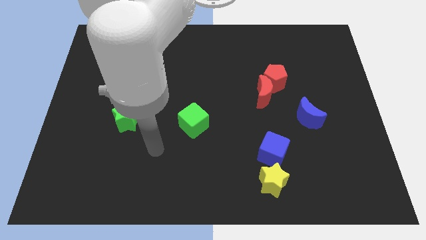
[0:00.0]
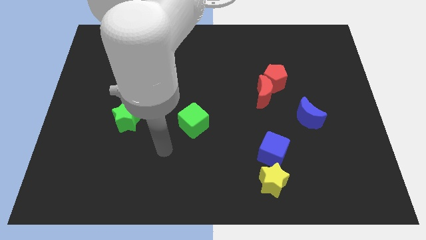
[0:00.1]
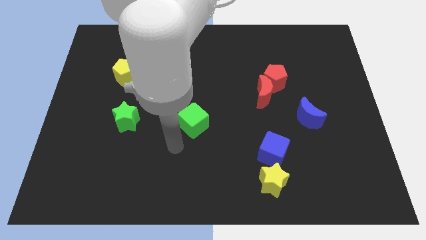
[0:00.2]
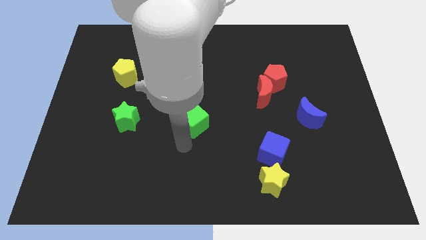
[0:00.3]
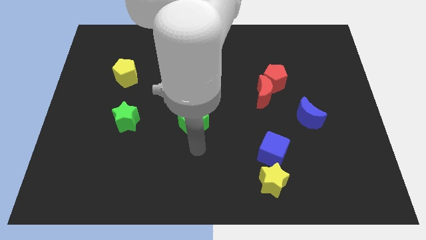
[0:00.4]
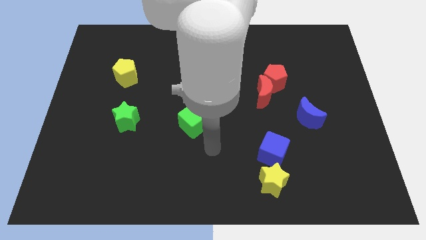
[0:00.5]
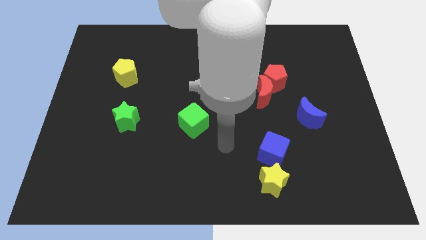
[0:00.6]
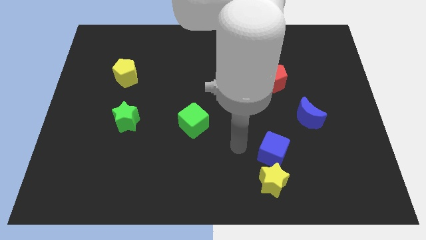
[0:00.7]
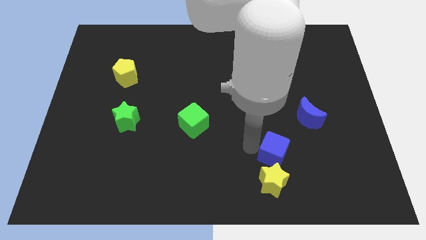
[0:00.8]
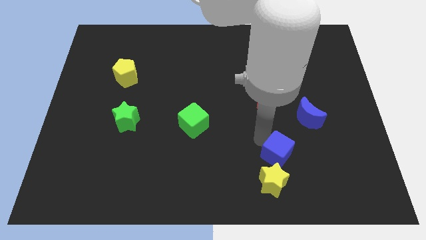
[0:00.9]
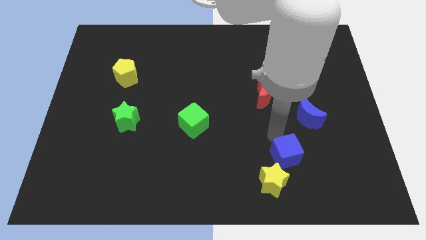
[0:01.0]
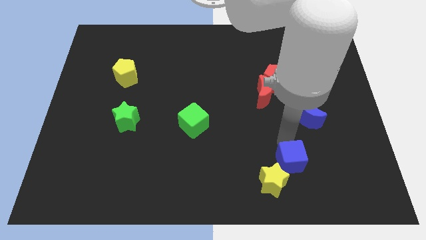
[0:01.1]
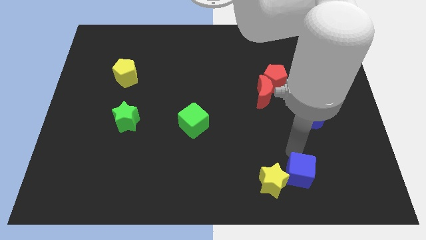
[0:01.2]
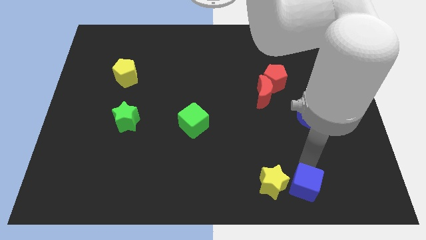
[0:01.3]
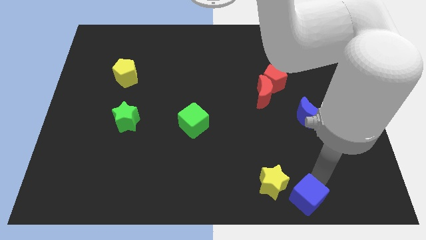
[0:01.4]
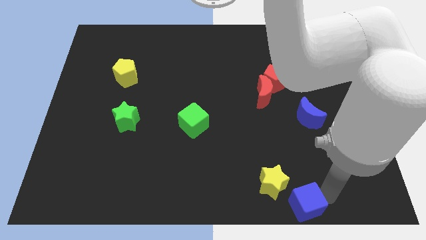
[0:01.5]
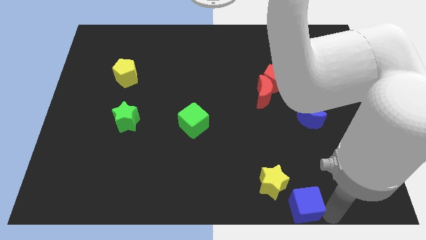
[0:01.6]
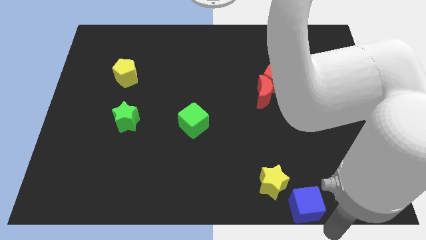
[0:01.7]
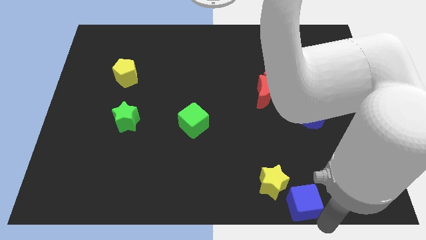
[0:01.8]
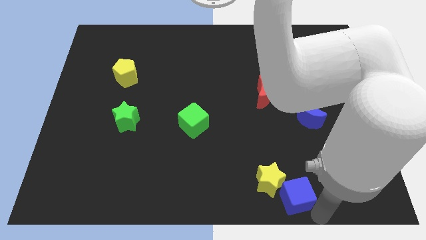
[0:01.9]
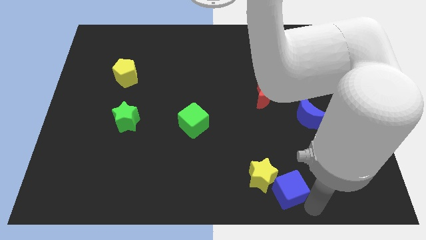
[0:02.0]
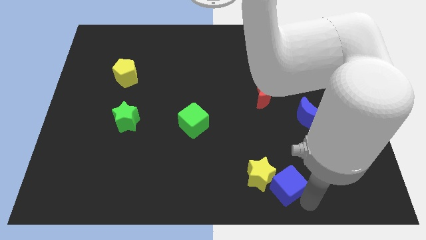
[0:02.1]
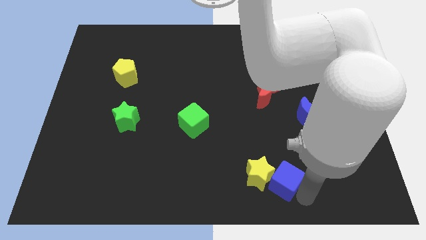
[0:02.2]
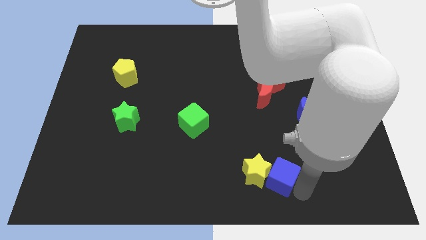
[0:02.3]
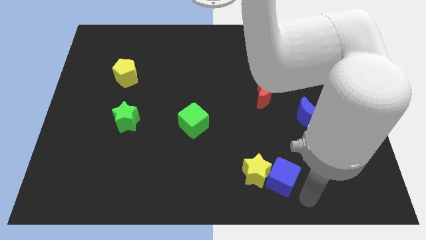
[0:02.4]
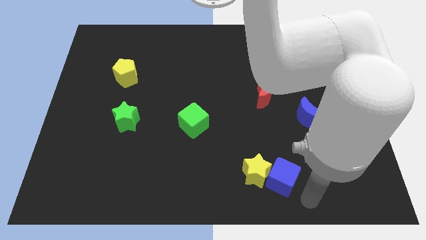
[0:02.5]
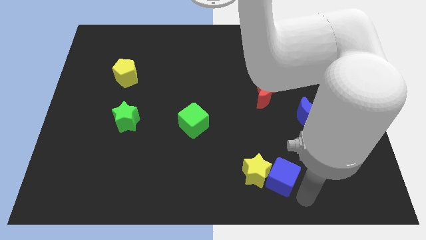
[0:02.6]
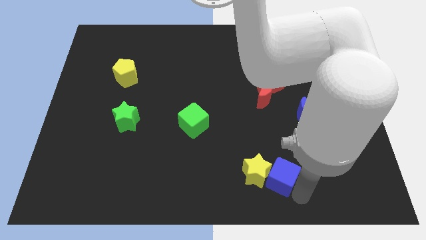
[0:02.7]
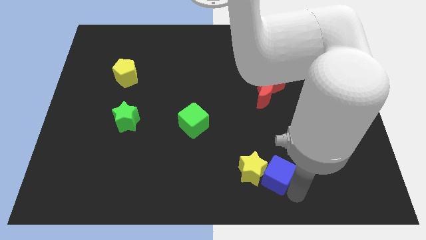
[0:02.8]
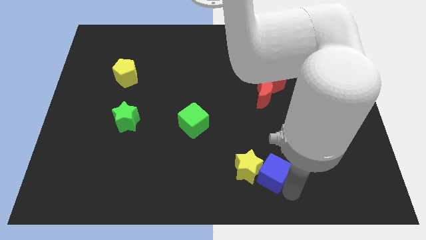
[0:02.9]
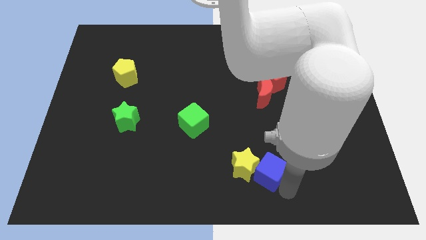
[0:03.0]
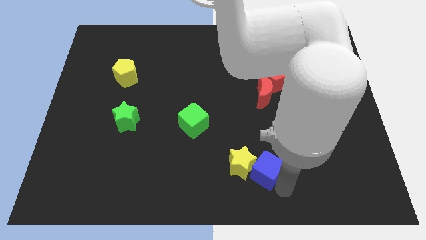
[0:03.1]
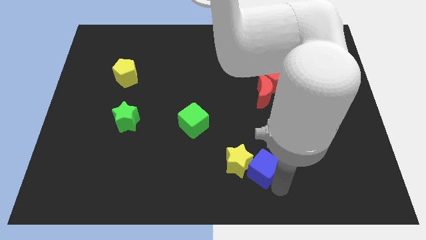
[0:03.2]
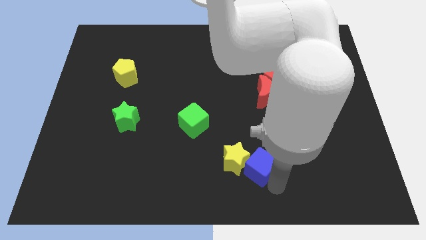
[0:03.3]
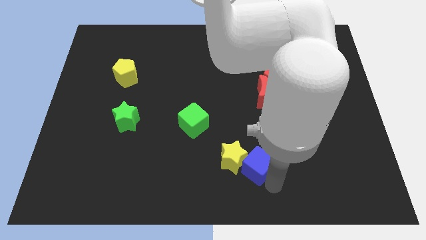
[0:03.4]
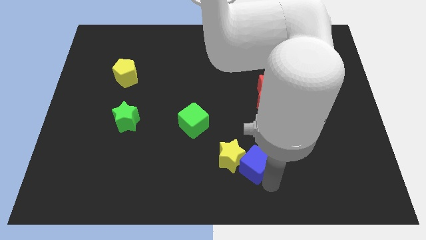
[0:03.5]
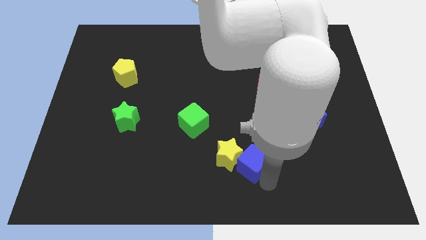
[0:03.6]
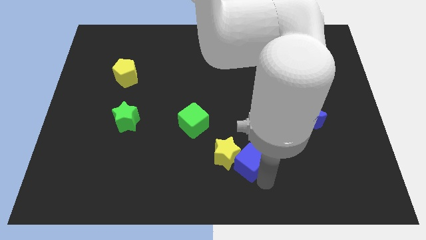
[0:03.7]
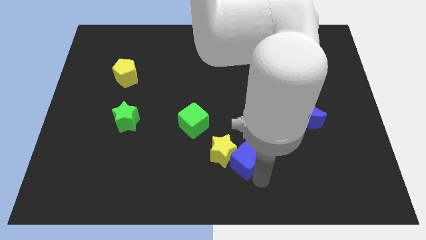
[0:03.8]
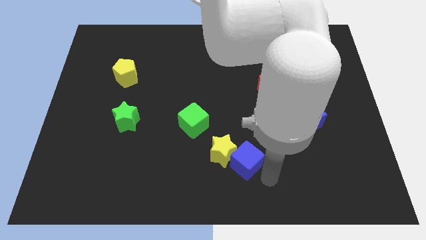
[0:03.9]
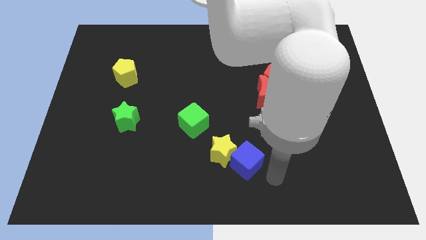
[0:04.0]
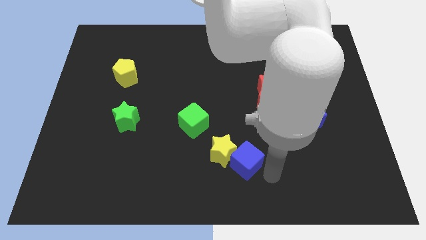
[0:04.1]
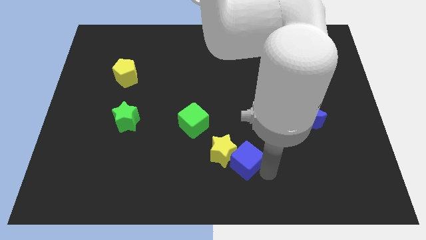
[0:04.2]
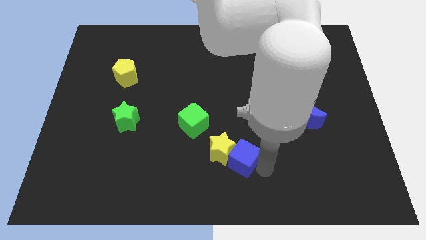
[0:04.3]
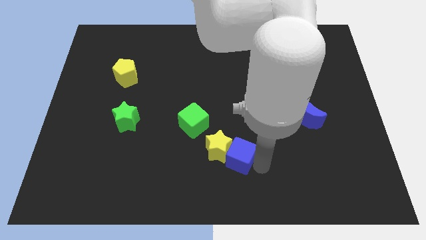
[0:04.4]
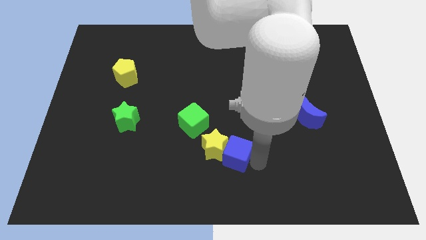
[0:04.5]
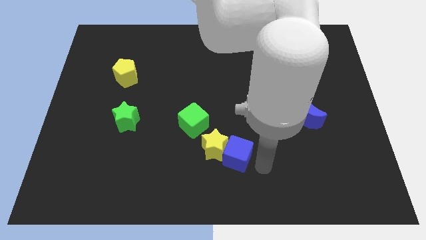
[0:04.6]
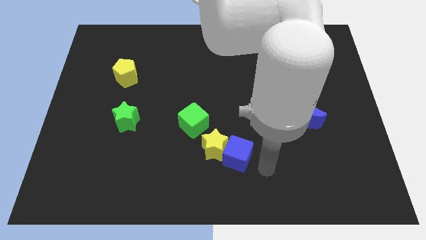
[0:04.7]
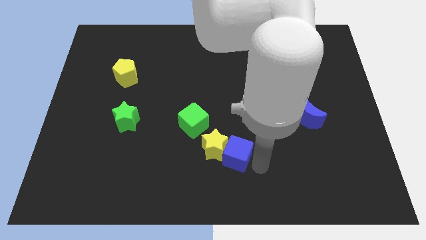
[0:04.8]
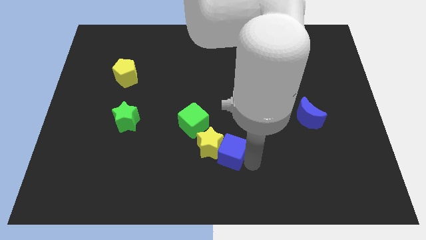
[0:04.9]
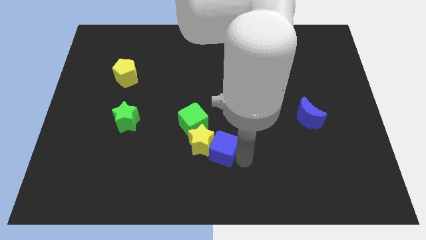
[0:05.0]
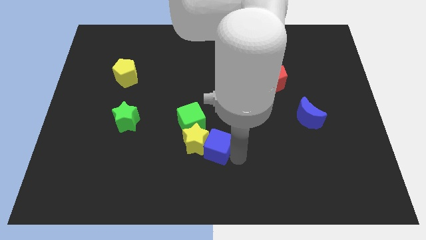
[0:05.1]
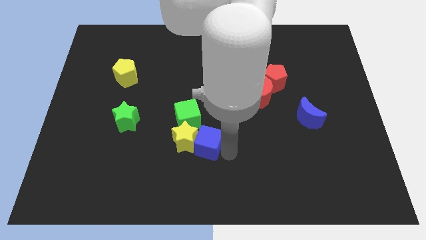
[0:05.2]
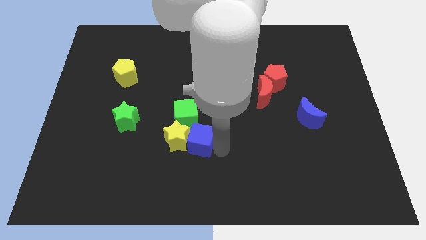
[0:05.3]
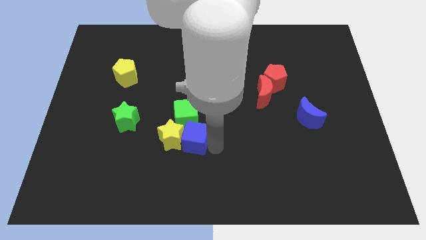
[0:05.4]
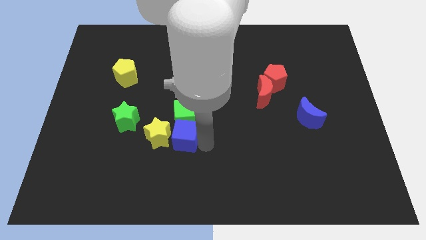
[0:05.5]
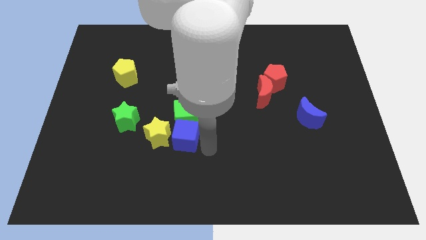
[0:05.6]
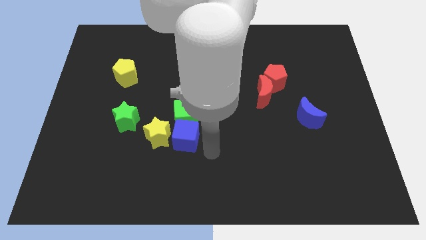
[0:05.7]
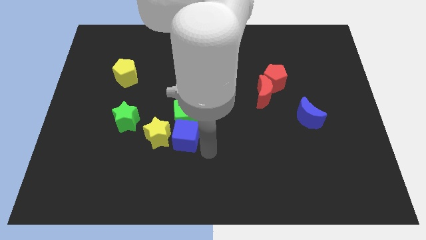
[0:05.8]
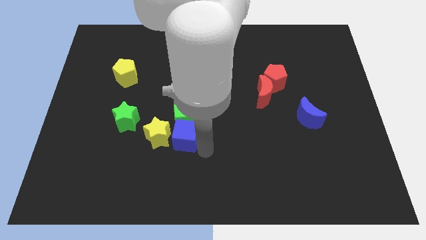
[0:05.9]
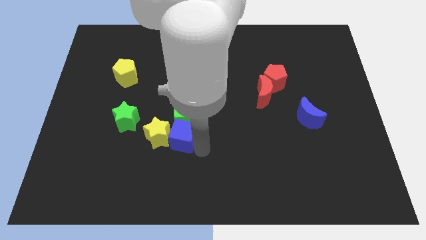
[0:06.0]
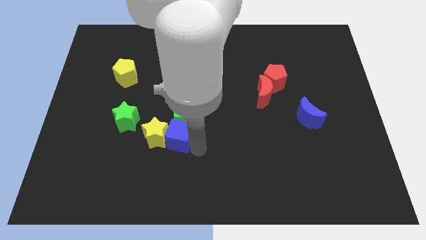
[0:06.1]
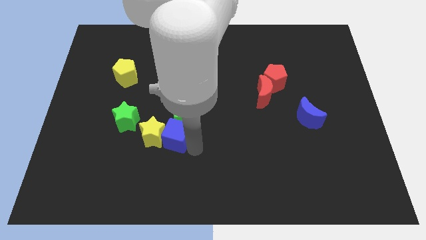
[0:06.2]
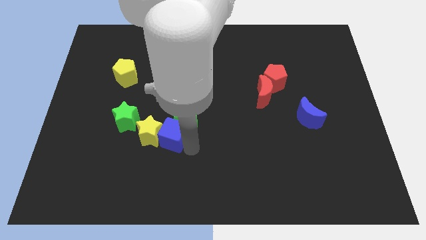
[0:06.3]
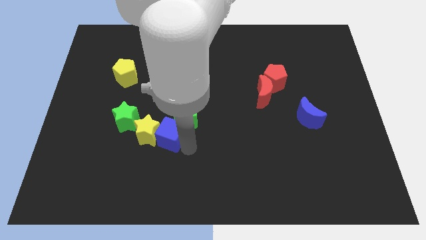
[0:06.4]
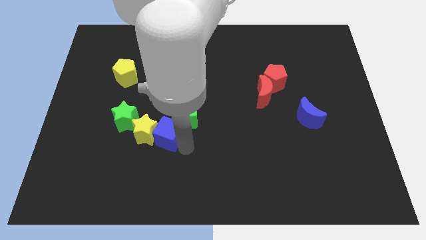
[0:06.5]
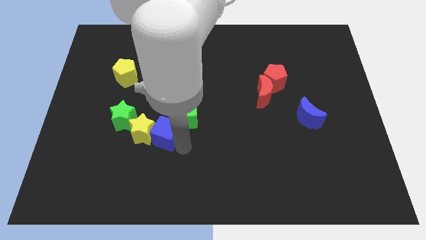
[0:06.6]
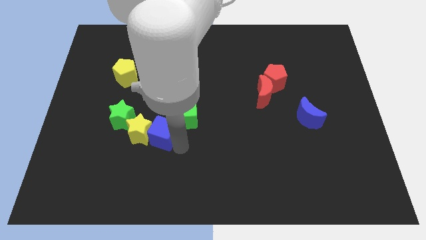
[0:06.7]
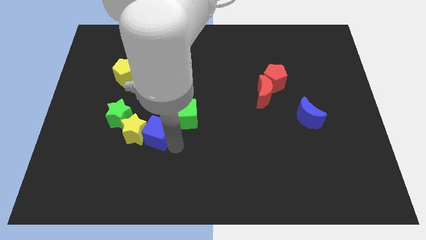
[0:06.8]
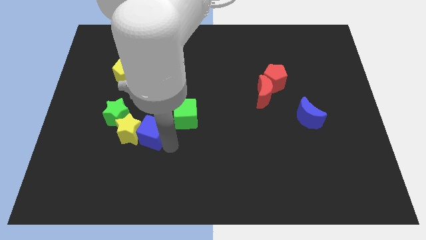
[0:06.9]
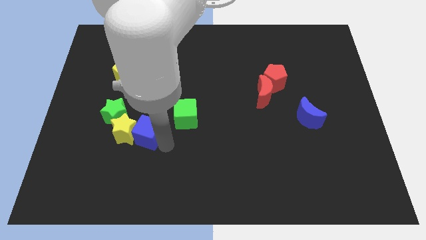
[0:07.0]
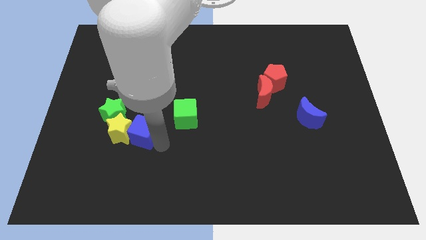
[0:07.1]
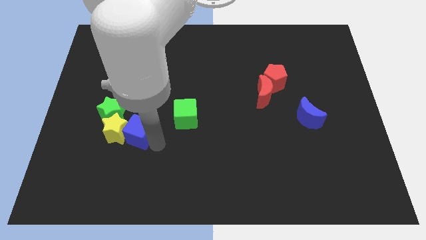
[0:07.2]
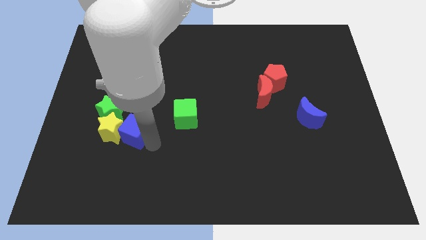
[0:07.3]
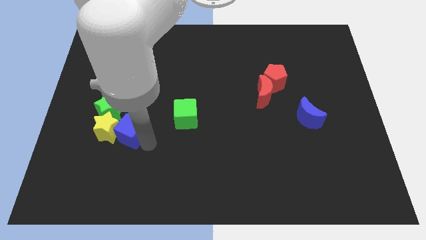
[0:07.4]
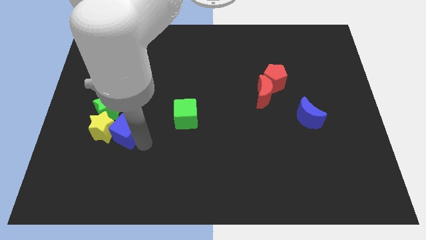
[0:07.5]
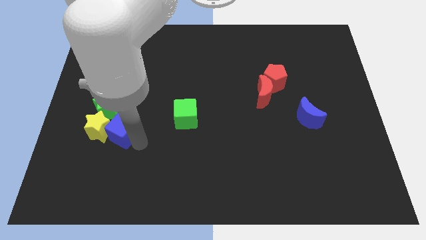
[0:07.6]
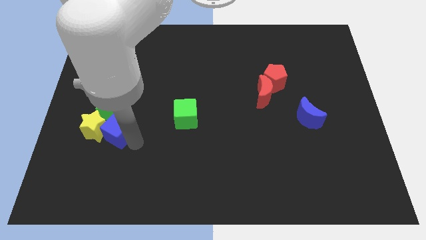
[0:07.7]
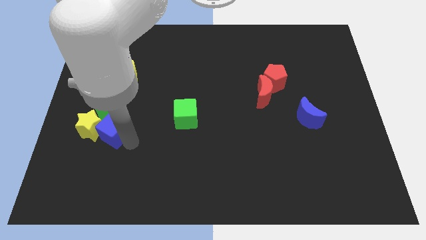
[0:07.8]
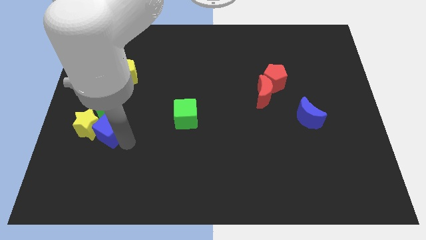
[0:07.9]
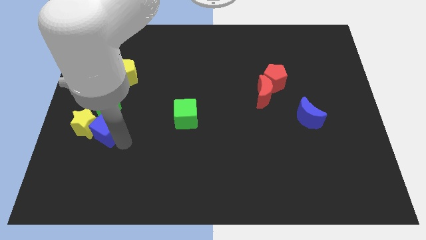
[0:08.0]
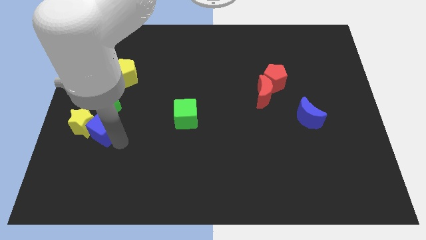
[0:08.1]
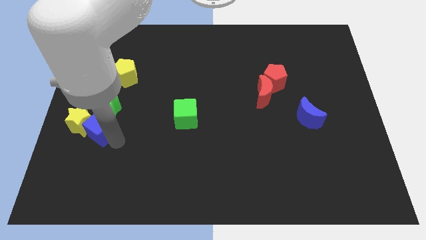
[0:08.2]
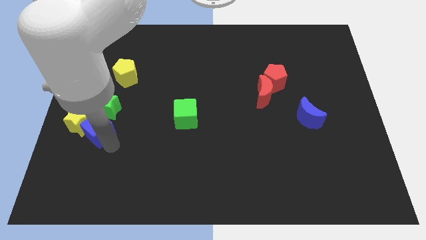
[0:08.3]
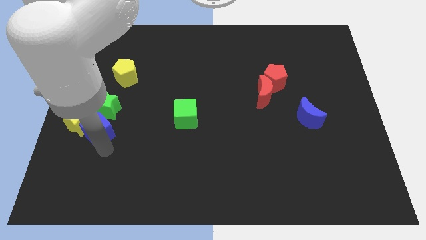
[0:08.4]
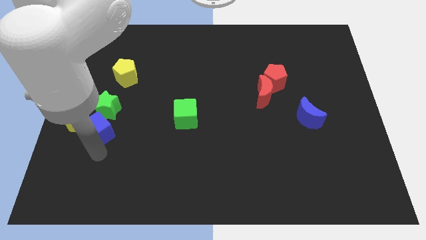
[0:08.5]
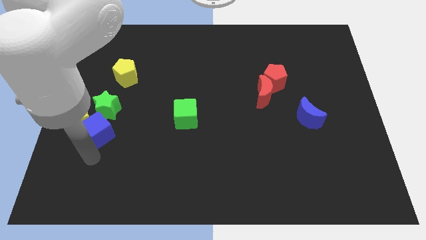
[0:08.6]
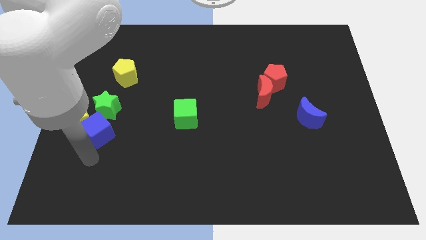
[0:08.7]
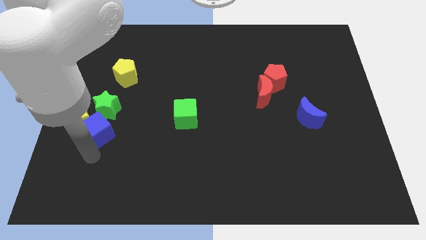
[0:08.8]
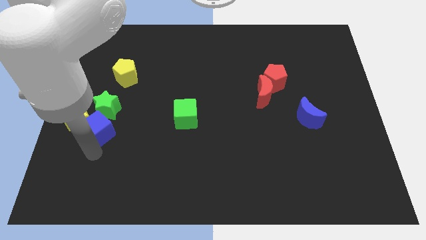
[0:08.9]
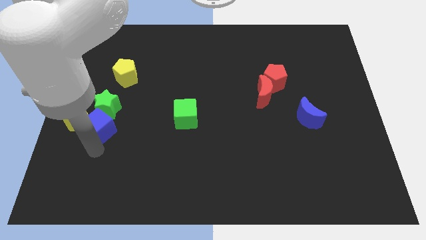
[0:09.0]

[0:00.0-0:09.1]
put the blue cube next to the green star
